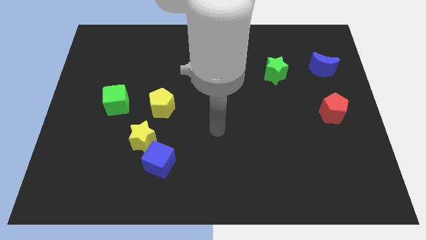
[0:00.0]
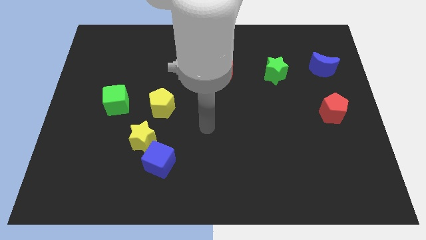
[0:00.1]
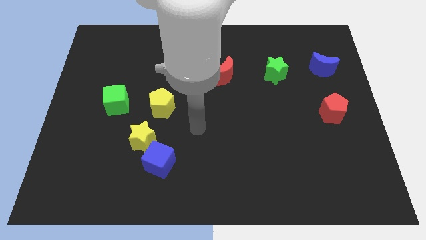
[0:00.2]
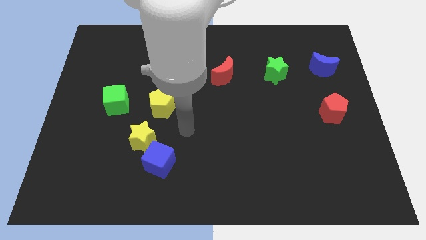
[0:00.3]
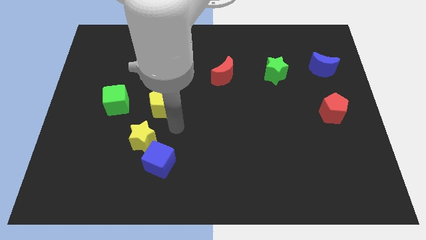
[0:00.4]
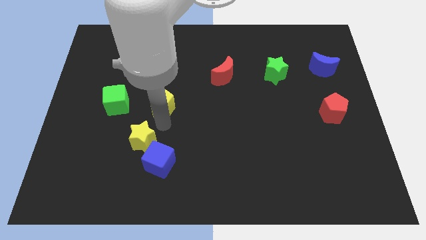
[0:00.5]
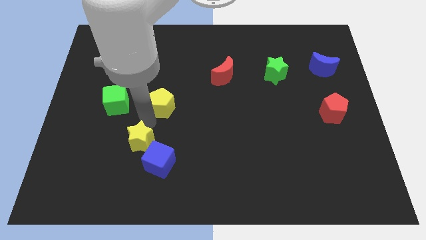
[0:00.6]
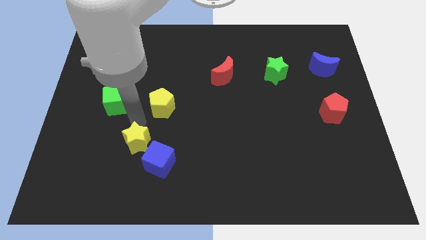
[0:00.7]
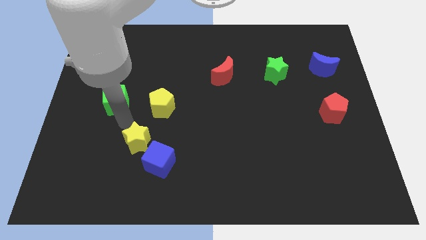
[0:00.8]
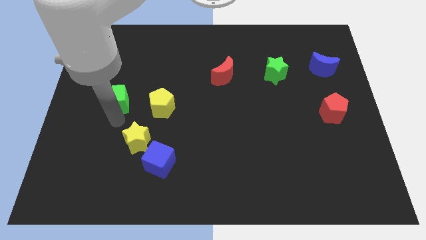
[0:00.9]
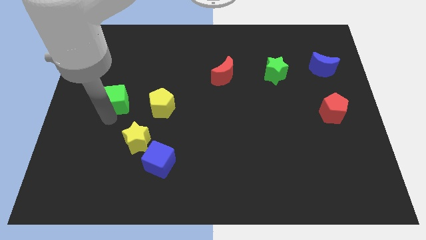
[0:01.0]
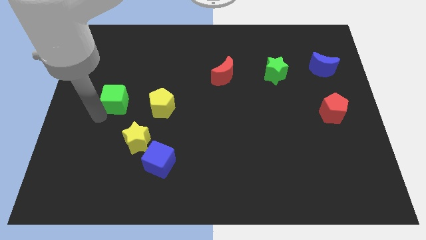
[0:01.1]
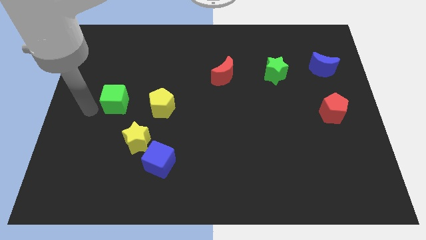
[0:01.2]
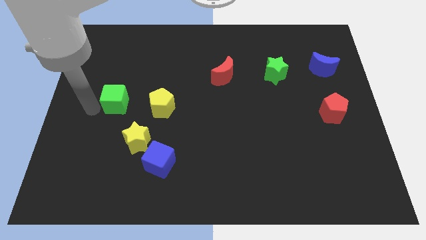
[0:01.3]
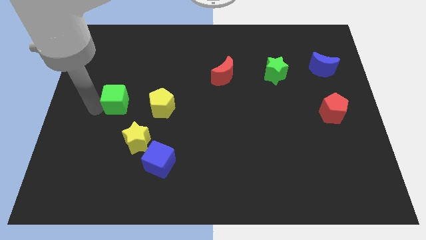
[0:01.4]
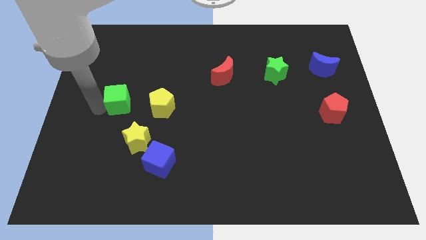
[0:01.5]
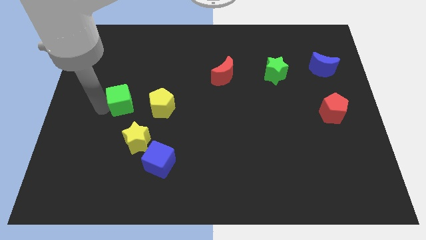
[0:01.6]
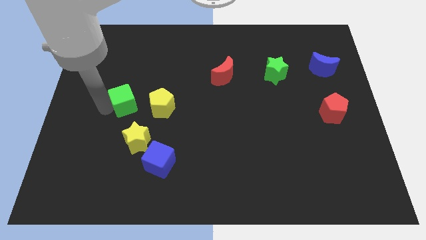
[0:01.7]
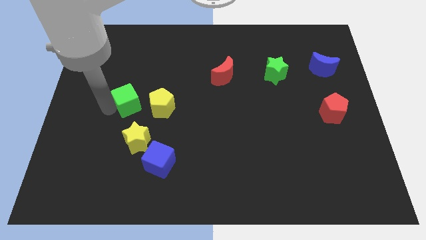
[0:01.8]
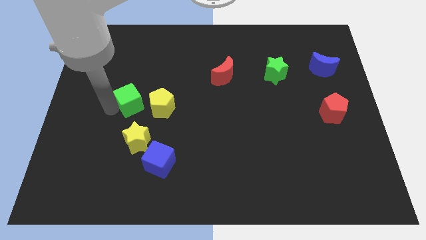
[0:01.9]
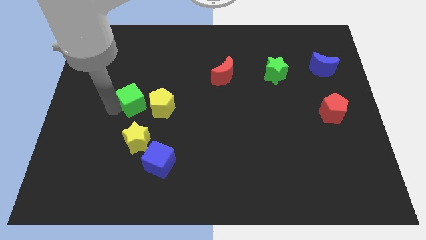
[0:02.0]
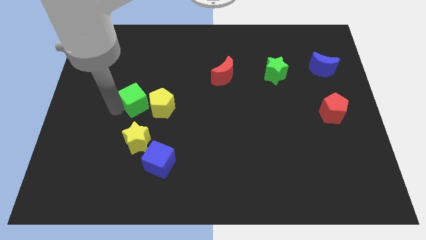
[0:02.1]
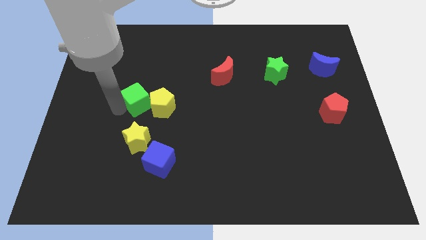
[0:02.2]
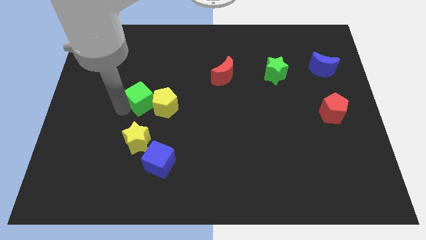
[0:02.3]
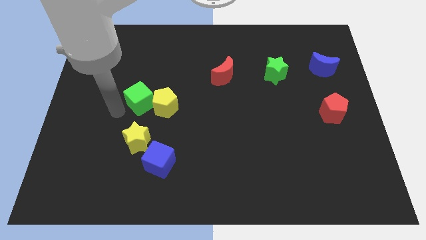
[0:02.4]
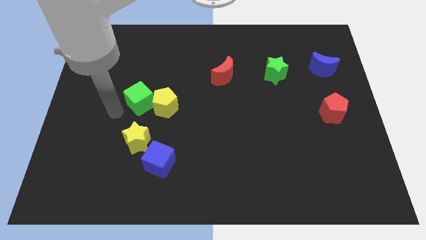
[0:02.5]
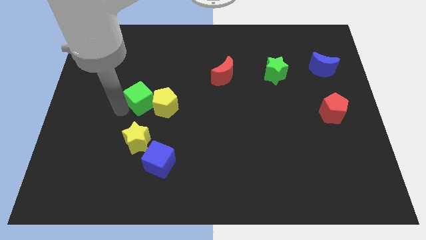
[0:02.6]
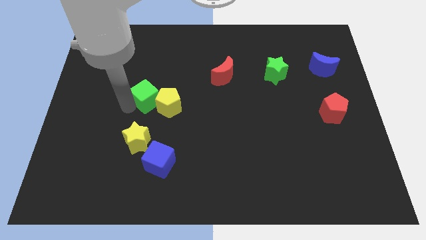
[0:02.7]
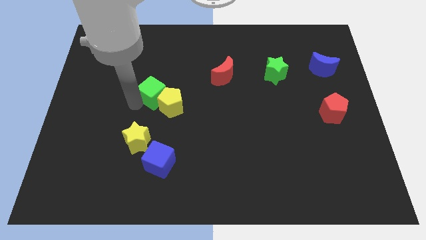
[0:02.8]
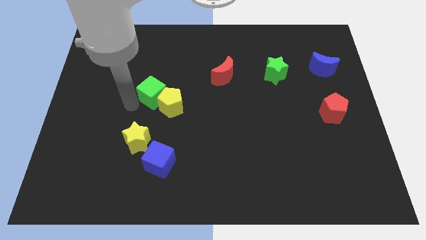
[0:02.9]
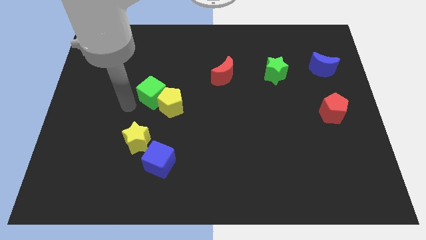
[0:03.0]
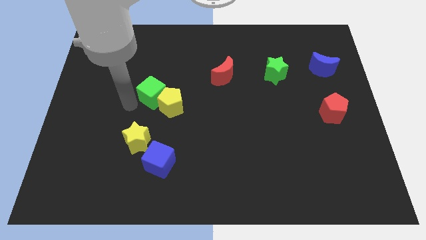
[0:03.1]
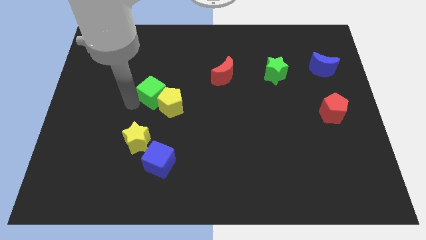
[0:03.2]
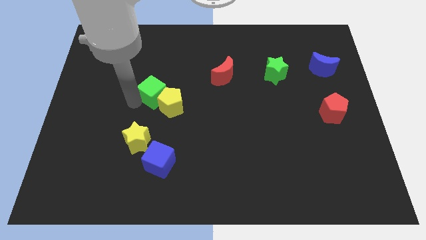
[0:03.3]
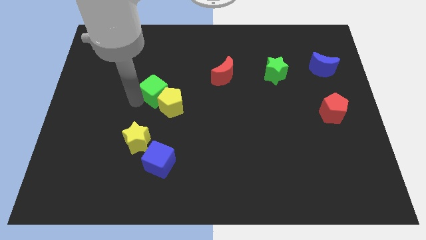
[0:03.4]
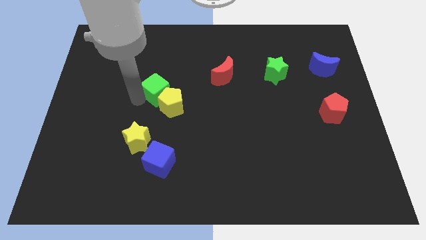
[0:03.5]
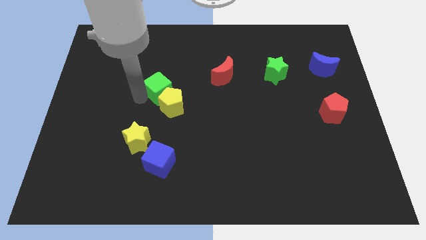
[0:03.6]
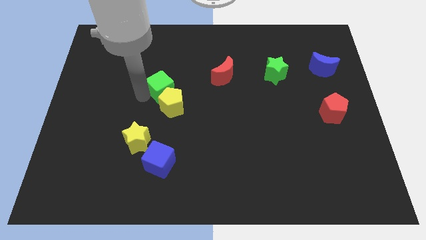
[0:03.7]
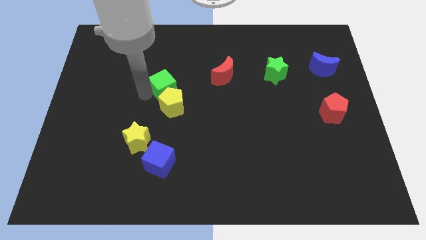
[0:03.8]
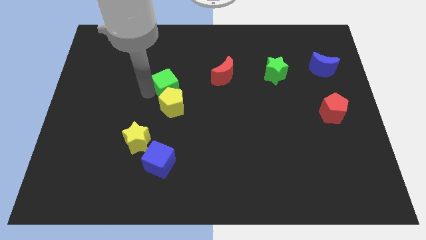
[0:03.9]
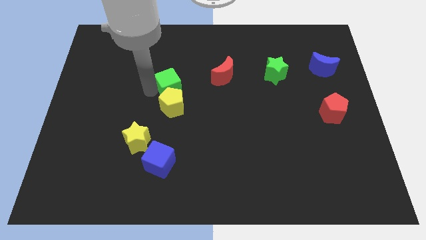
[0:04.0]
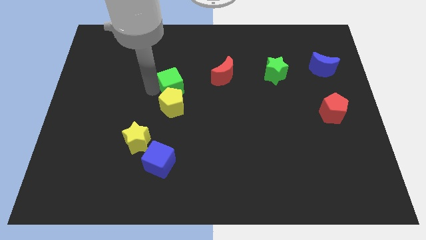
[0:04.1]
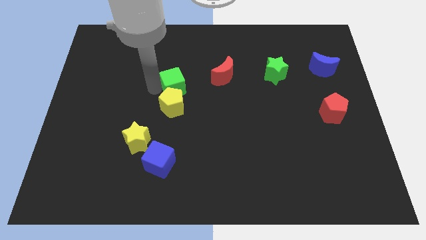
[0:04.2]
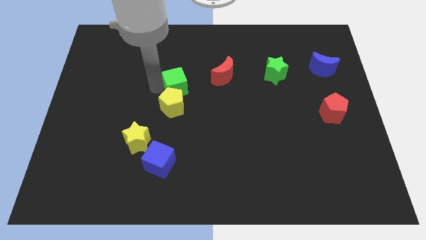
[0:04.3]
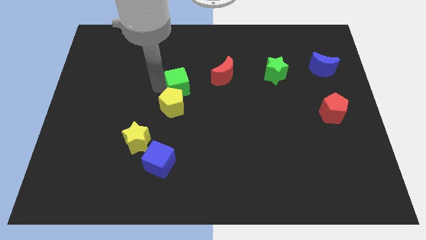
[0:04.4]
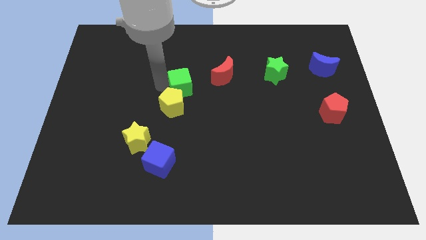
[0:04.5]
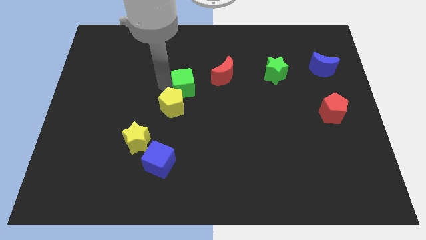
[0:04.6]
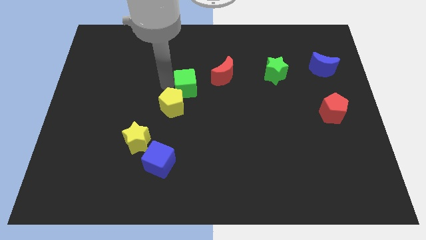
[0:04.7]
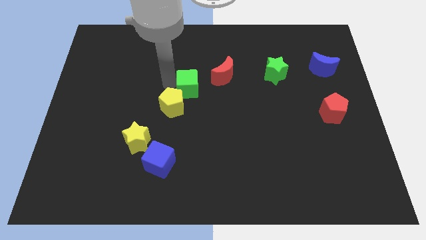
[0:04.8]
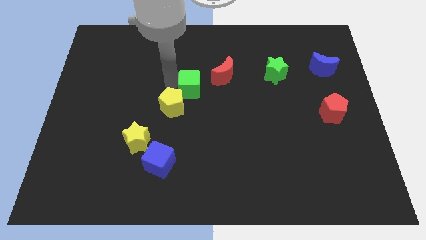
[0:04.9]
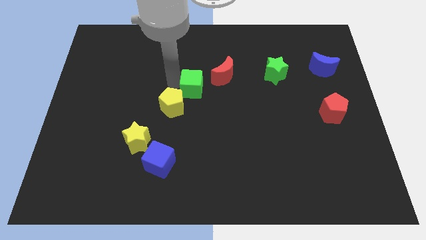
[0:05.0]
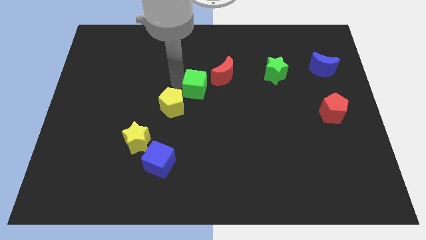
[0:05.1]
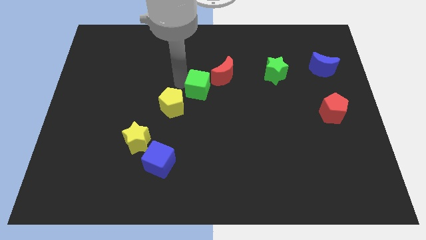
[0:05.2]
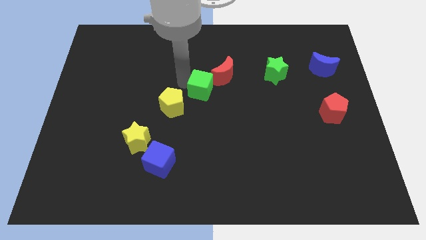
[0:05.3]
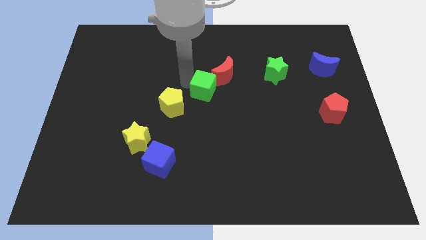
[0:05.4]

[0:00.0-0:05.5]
push the green cube right

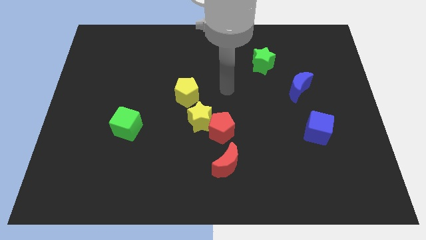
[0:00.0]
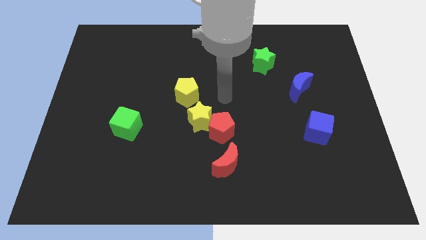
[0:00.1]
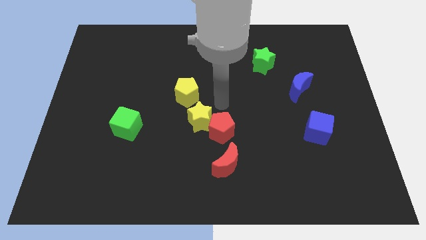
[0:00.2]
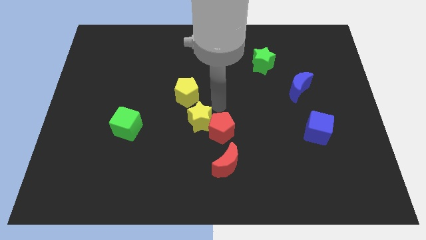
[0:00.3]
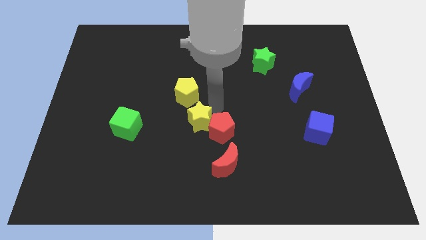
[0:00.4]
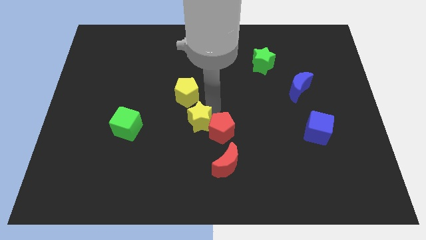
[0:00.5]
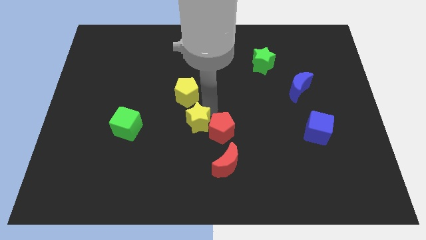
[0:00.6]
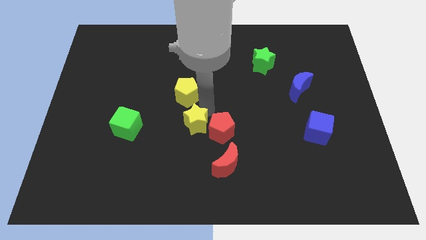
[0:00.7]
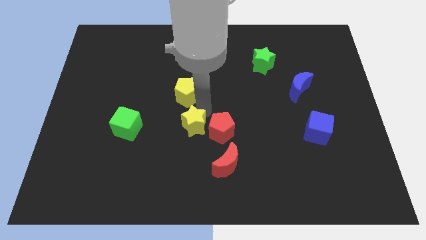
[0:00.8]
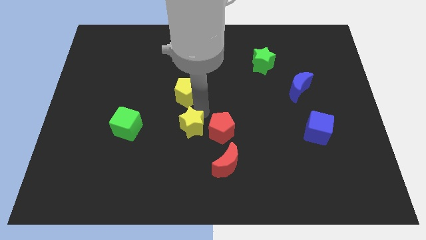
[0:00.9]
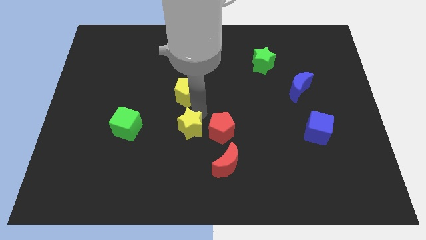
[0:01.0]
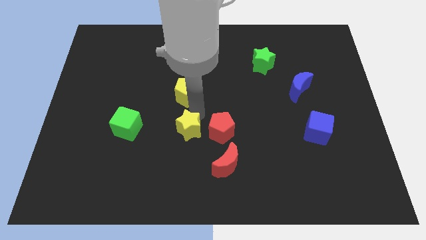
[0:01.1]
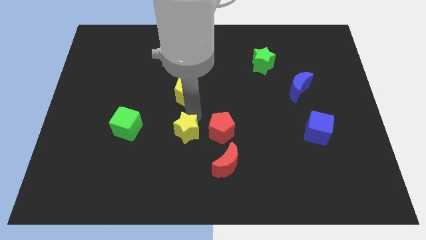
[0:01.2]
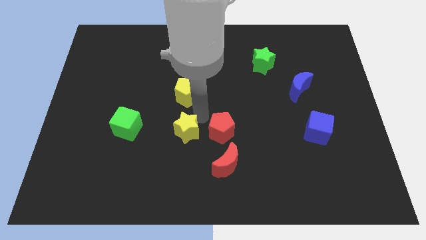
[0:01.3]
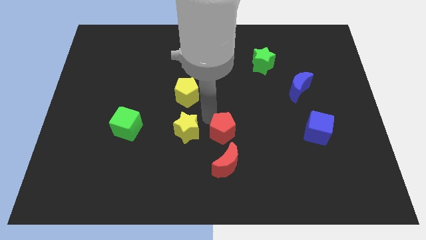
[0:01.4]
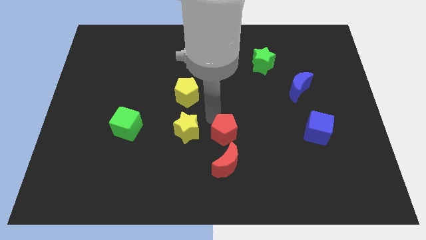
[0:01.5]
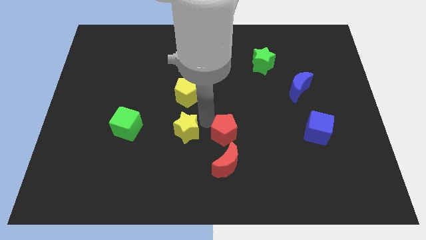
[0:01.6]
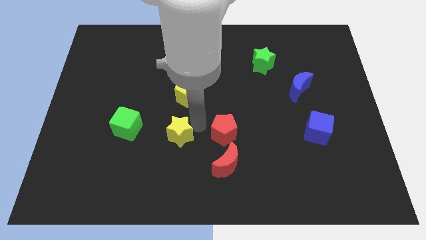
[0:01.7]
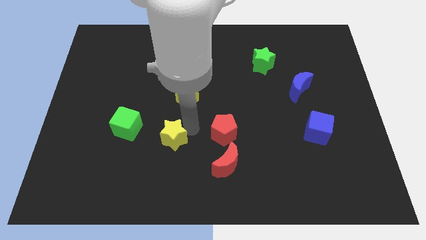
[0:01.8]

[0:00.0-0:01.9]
slightly push the yellow star diagonally down and to the left

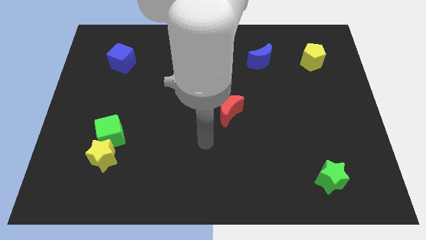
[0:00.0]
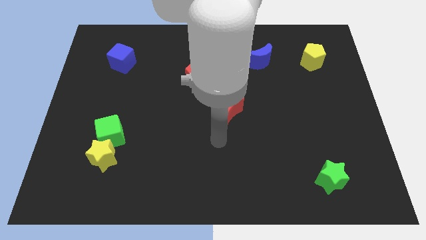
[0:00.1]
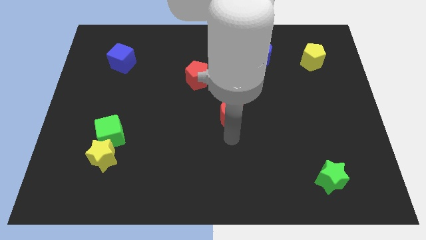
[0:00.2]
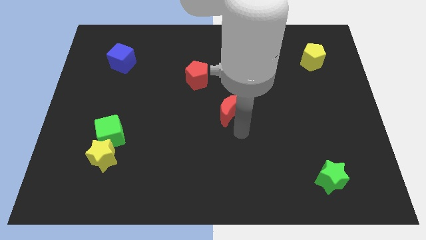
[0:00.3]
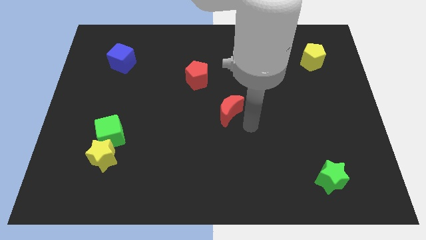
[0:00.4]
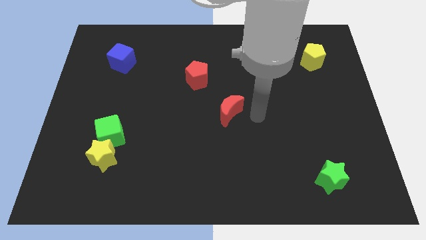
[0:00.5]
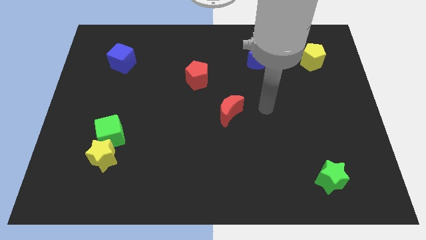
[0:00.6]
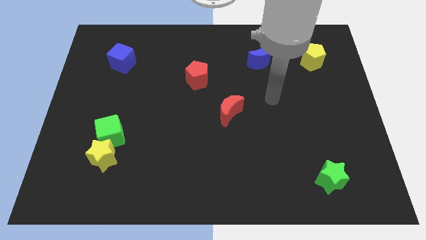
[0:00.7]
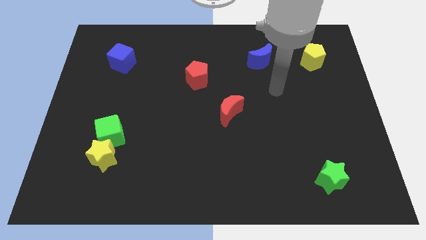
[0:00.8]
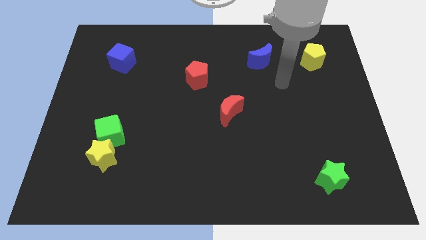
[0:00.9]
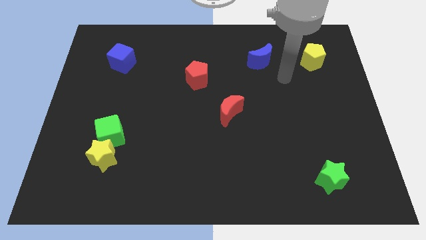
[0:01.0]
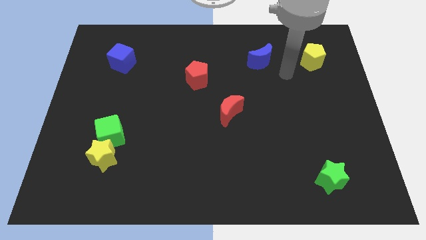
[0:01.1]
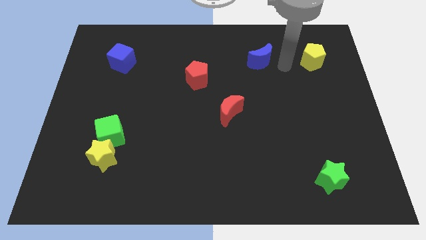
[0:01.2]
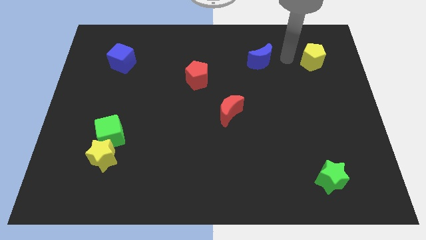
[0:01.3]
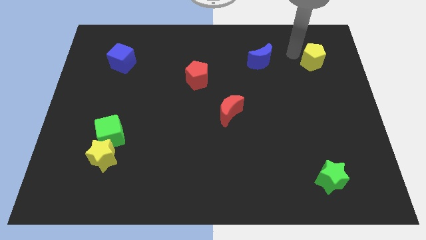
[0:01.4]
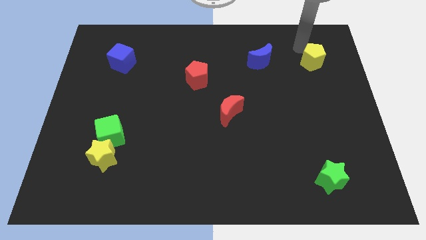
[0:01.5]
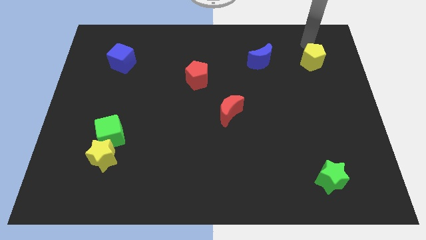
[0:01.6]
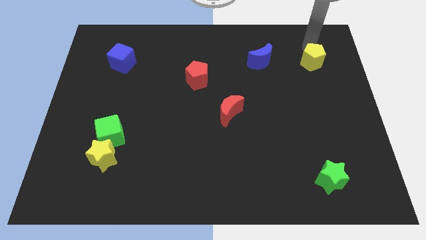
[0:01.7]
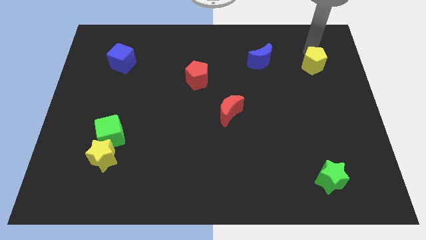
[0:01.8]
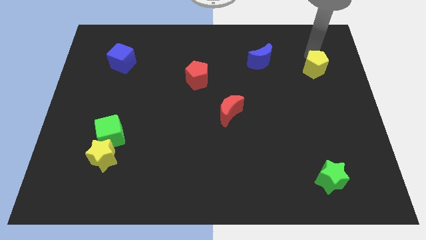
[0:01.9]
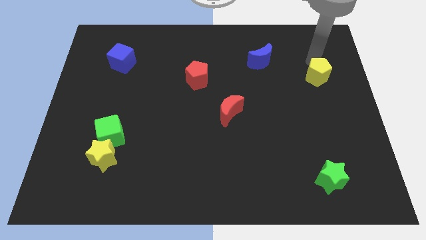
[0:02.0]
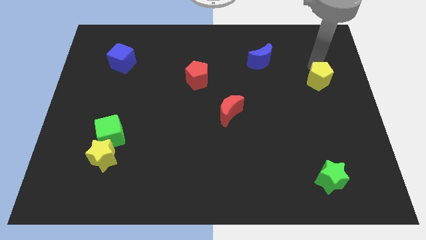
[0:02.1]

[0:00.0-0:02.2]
push the yellow pentagon downwards somewhat
